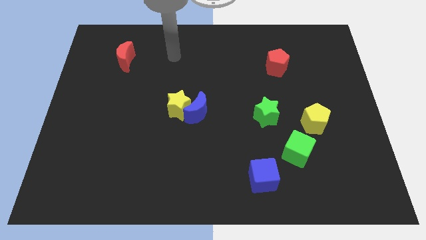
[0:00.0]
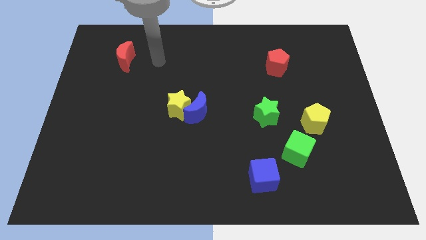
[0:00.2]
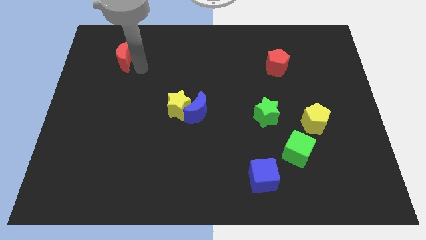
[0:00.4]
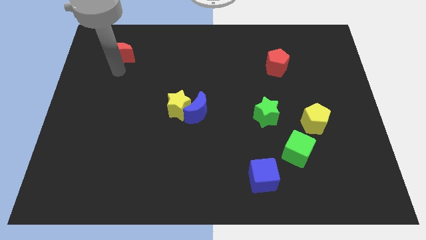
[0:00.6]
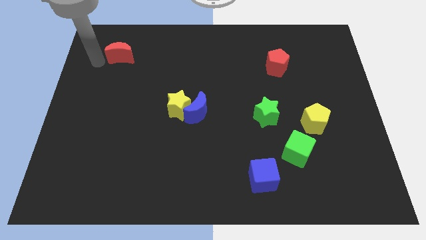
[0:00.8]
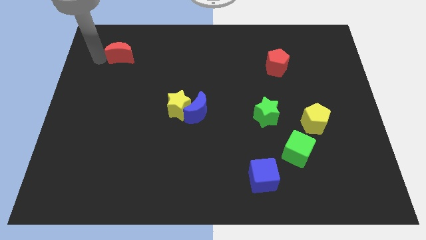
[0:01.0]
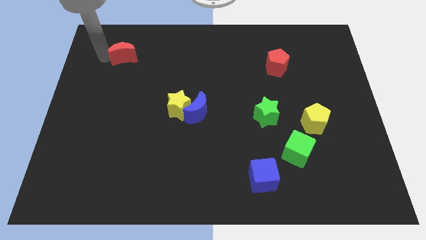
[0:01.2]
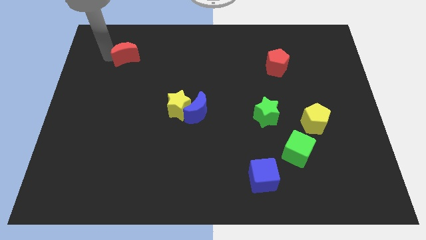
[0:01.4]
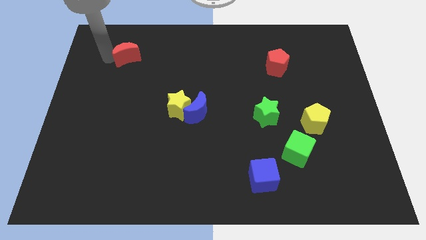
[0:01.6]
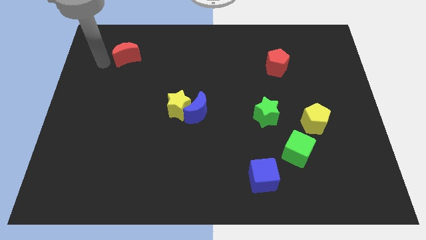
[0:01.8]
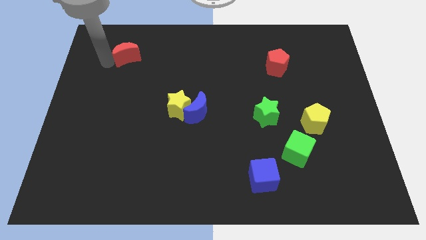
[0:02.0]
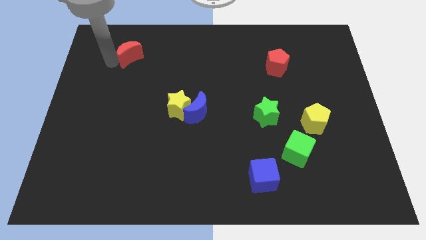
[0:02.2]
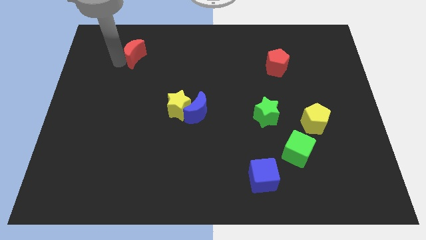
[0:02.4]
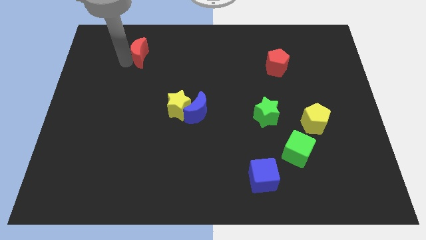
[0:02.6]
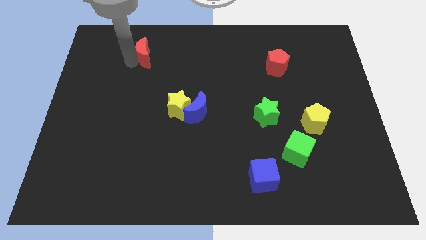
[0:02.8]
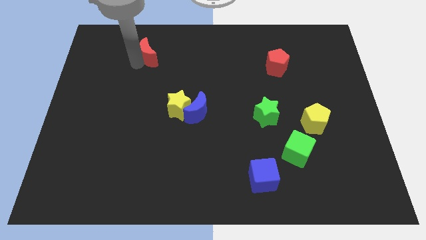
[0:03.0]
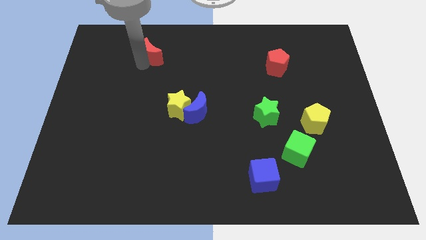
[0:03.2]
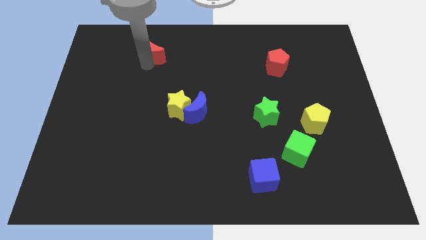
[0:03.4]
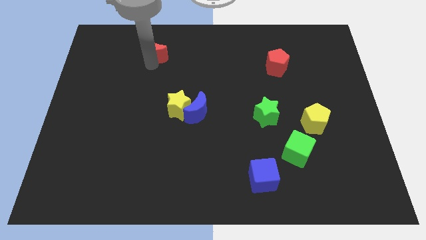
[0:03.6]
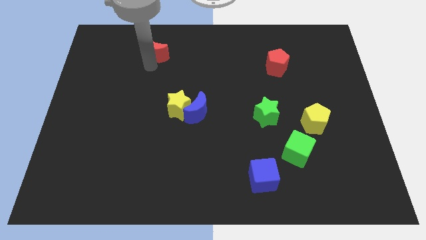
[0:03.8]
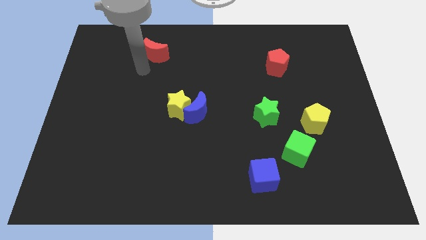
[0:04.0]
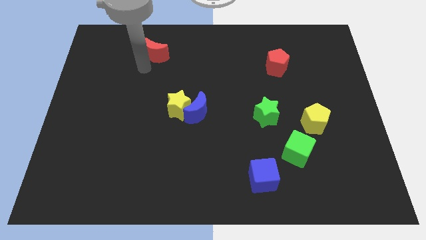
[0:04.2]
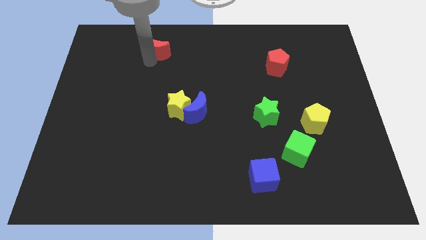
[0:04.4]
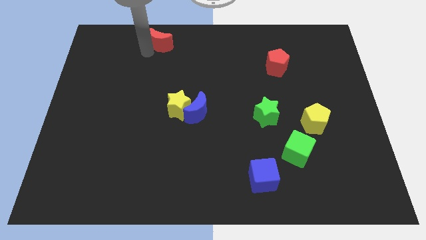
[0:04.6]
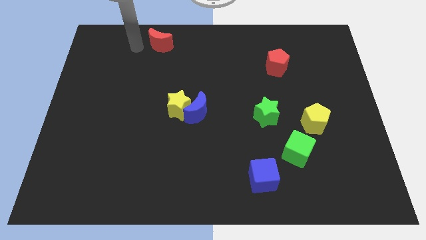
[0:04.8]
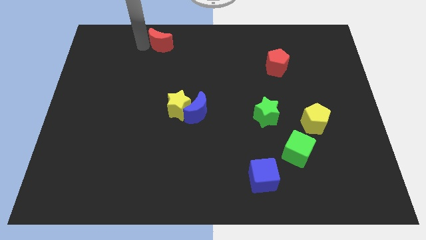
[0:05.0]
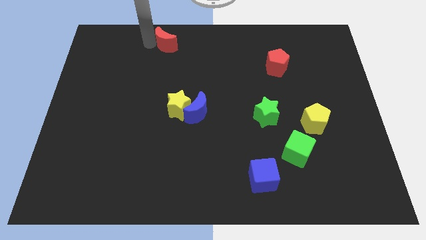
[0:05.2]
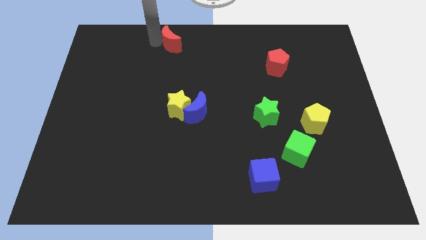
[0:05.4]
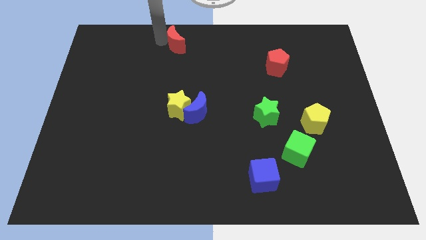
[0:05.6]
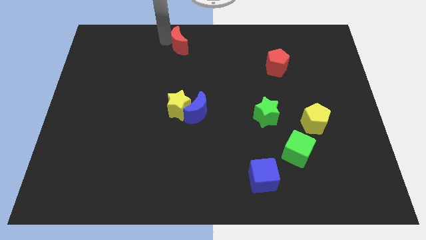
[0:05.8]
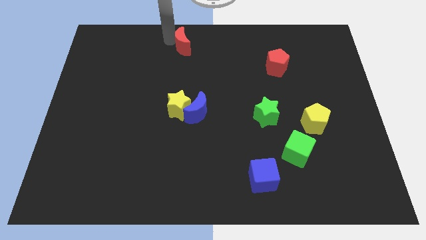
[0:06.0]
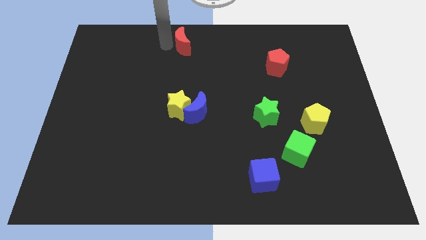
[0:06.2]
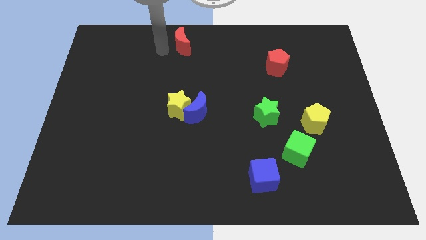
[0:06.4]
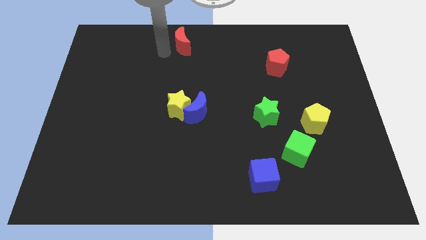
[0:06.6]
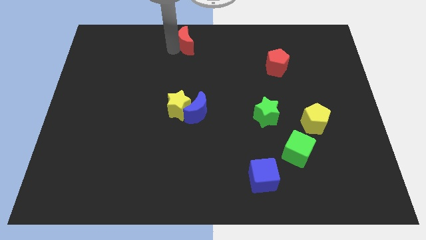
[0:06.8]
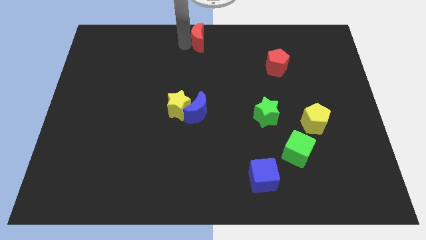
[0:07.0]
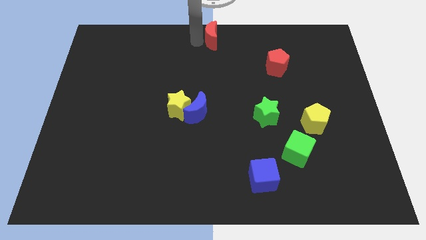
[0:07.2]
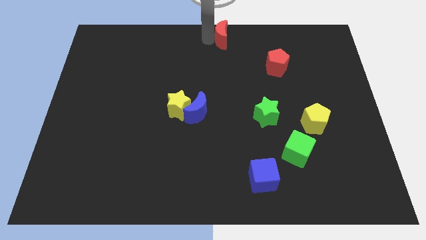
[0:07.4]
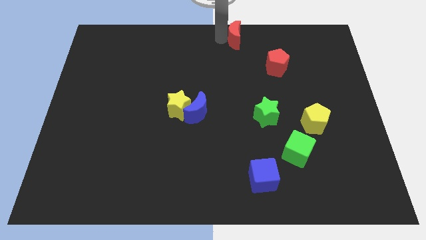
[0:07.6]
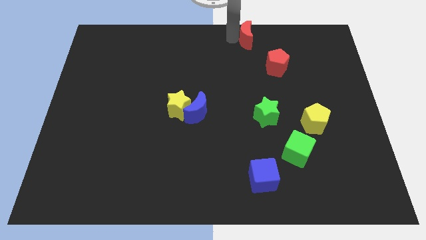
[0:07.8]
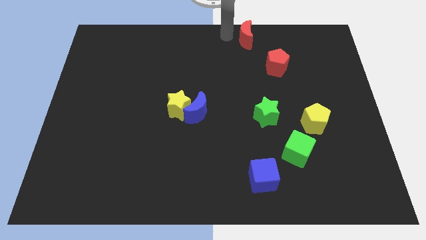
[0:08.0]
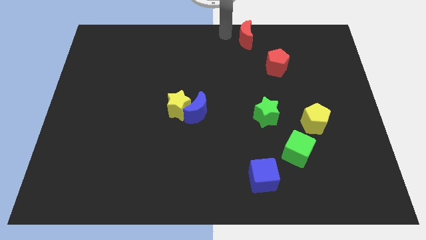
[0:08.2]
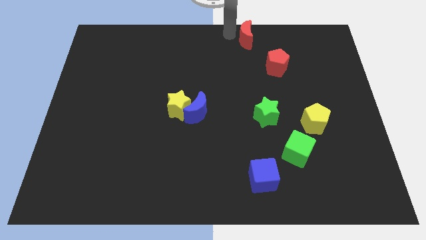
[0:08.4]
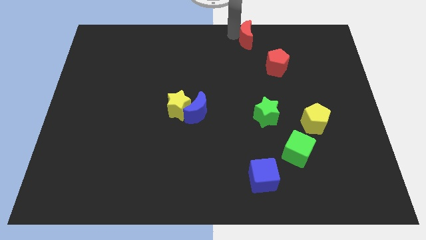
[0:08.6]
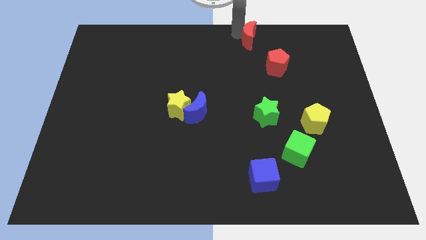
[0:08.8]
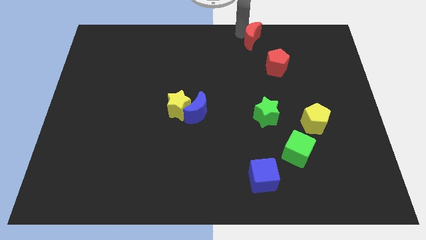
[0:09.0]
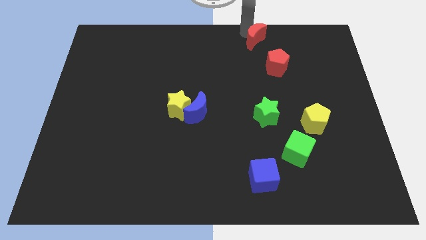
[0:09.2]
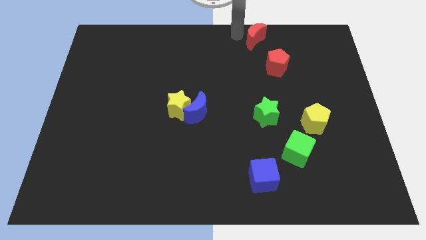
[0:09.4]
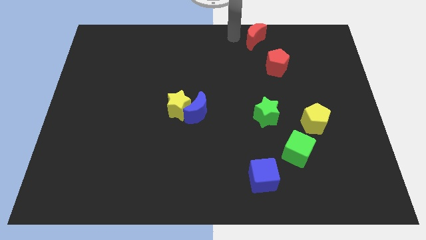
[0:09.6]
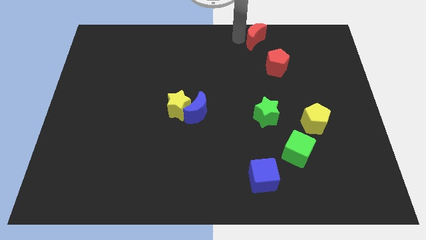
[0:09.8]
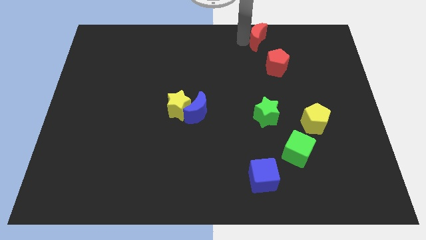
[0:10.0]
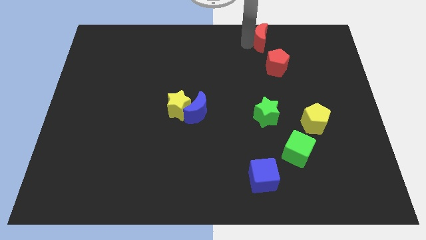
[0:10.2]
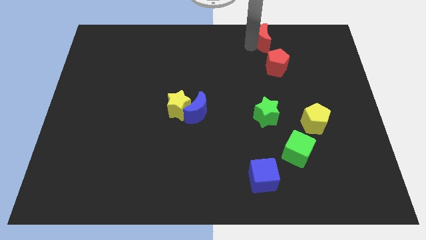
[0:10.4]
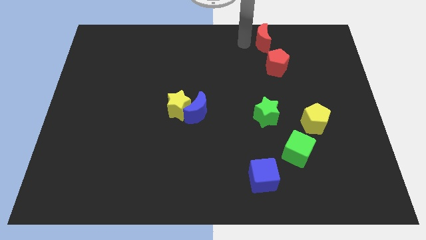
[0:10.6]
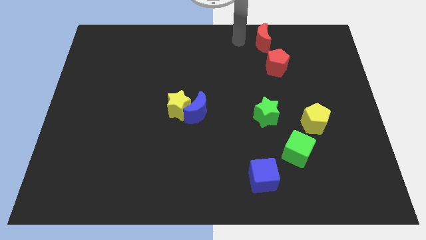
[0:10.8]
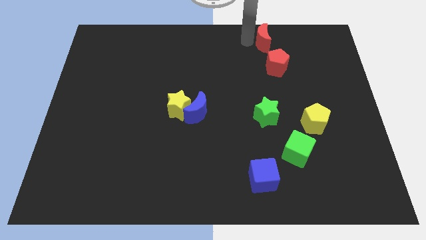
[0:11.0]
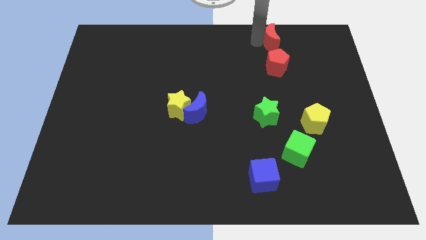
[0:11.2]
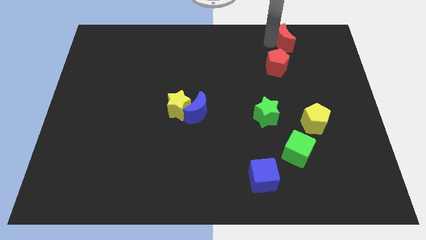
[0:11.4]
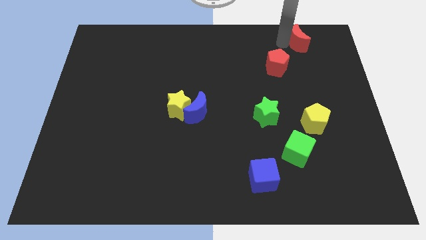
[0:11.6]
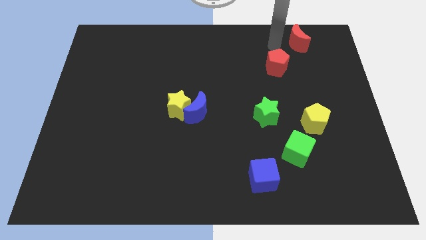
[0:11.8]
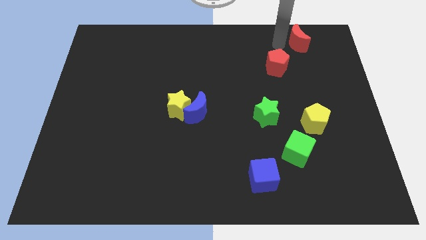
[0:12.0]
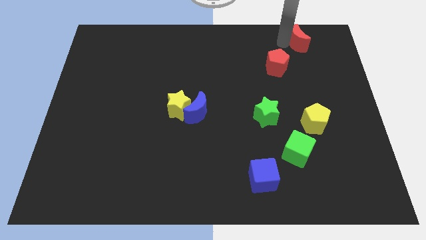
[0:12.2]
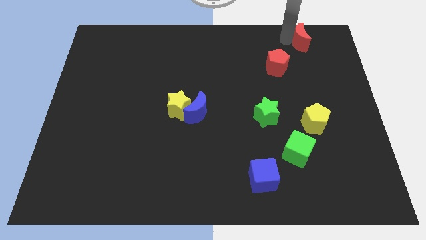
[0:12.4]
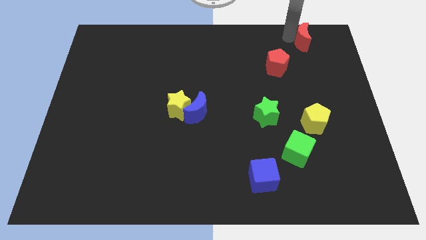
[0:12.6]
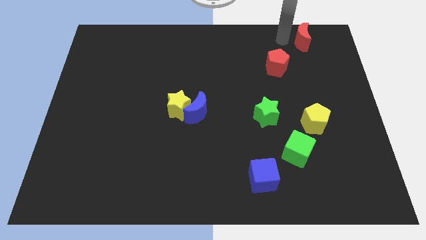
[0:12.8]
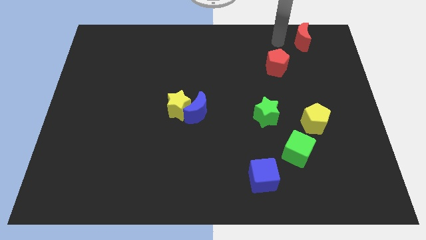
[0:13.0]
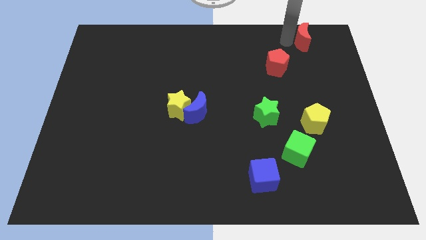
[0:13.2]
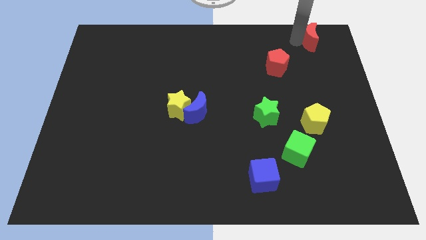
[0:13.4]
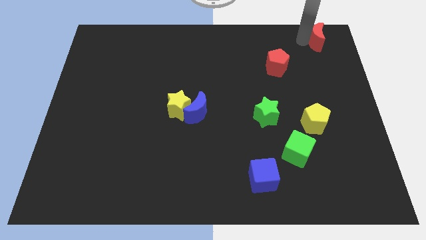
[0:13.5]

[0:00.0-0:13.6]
push the red moon to the upper right corner

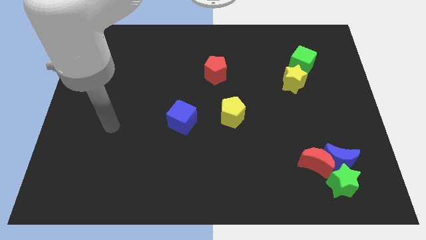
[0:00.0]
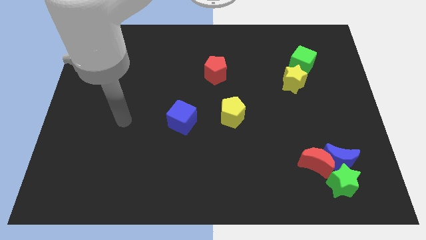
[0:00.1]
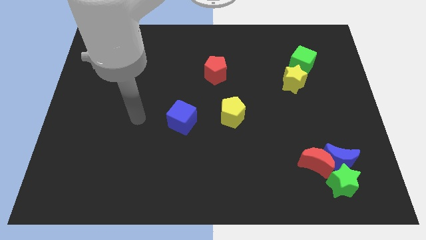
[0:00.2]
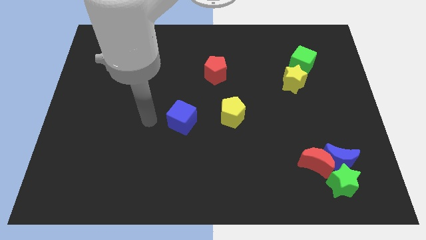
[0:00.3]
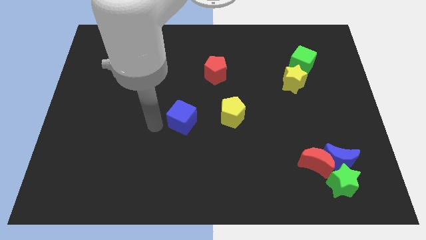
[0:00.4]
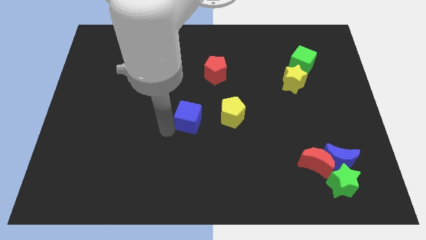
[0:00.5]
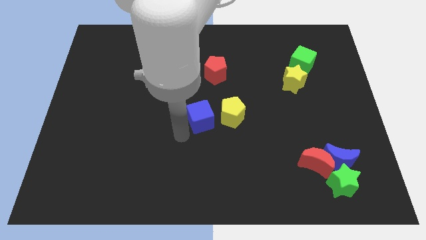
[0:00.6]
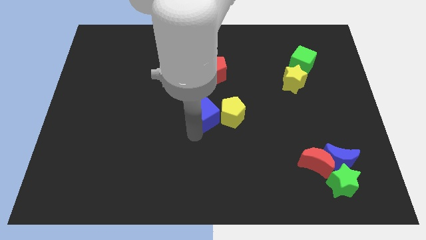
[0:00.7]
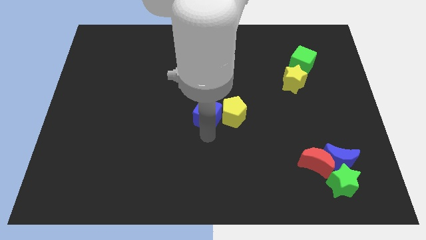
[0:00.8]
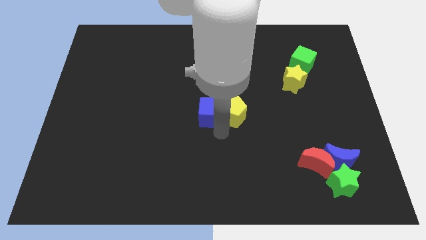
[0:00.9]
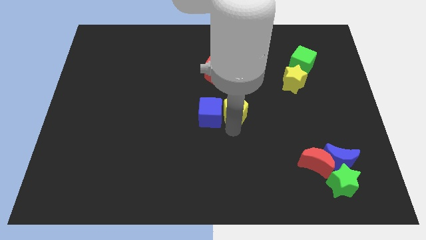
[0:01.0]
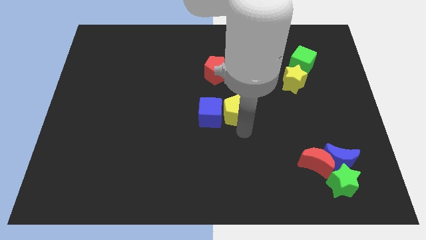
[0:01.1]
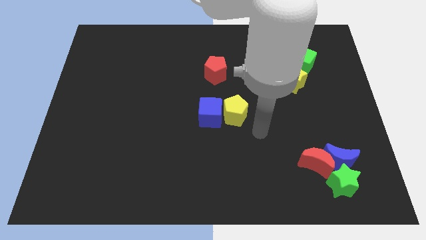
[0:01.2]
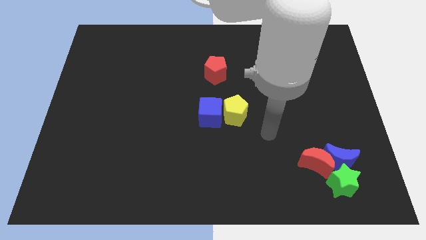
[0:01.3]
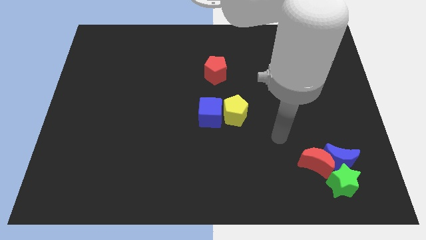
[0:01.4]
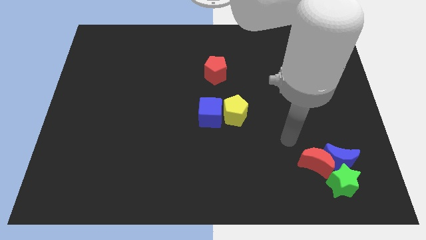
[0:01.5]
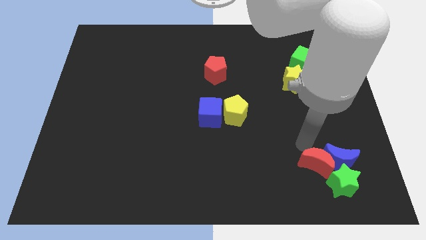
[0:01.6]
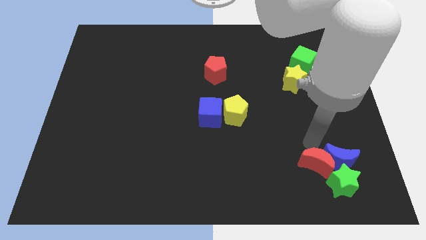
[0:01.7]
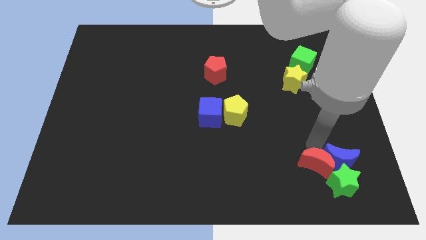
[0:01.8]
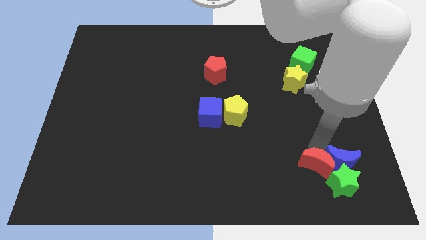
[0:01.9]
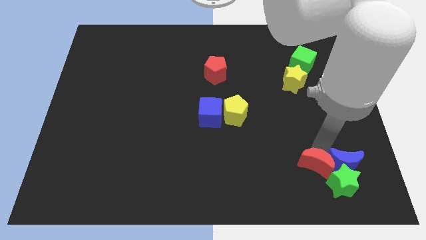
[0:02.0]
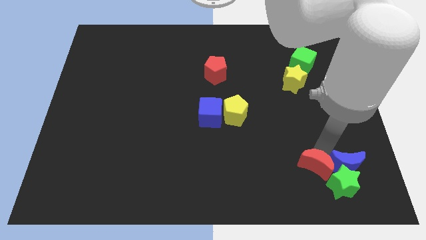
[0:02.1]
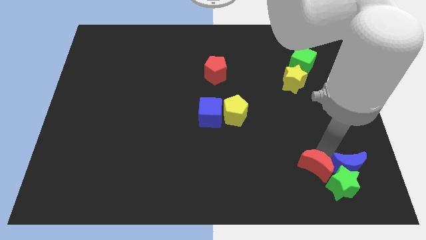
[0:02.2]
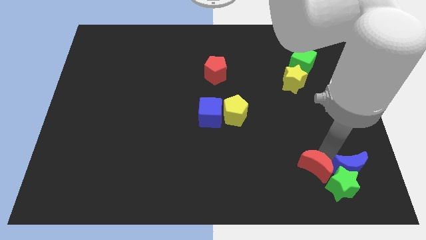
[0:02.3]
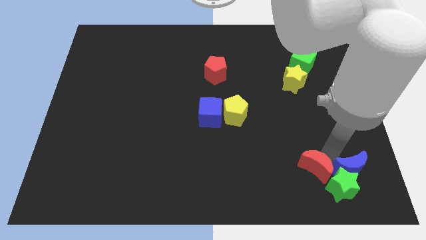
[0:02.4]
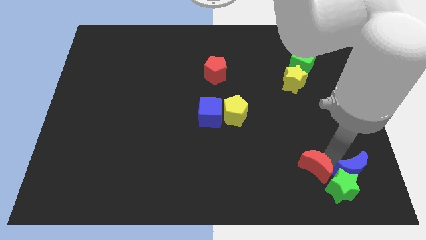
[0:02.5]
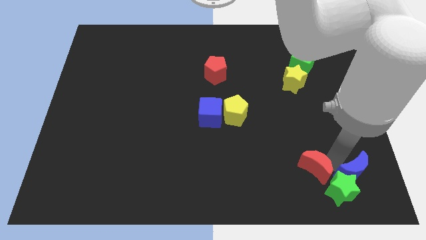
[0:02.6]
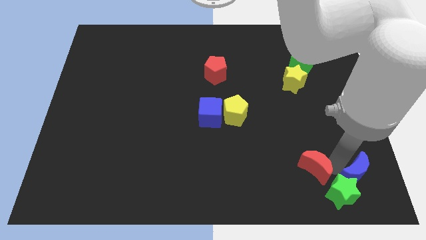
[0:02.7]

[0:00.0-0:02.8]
move the blue moon to the bottom right corner
